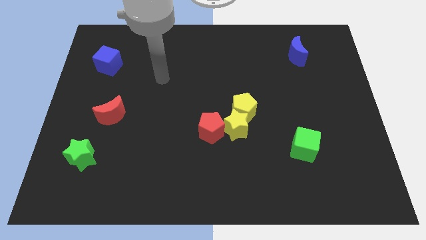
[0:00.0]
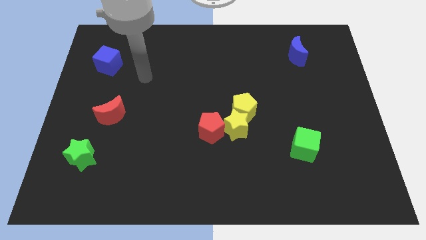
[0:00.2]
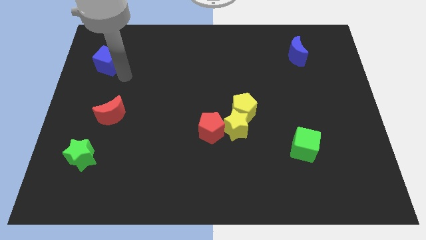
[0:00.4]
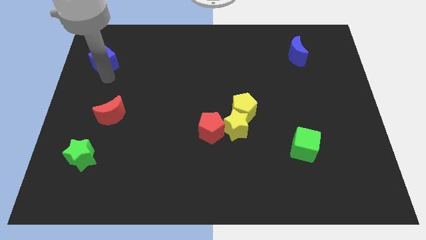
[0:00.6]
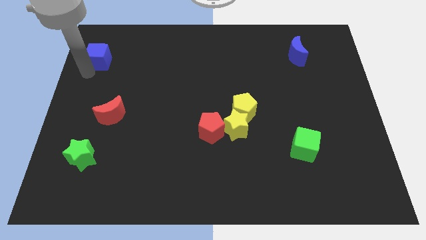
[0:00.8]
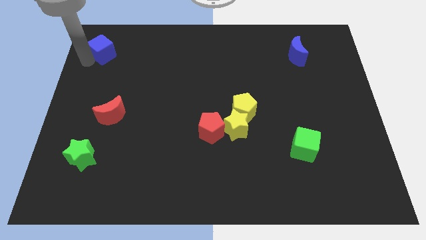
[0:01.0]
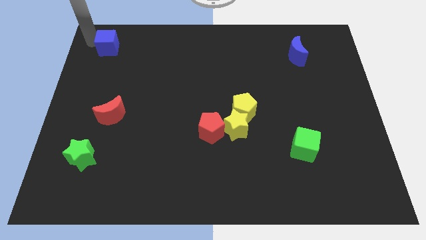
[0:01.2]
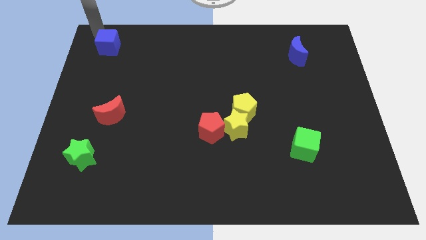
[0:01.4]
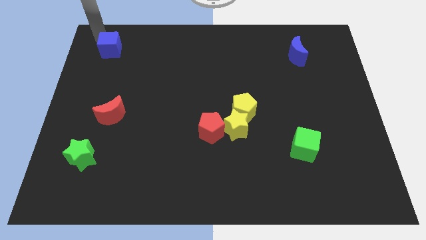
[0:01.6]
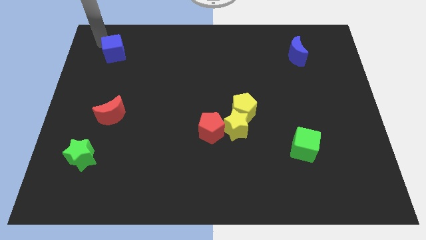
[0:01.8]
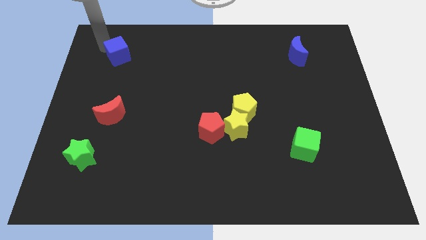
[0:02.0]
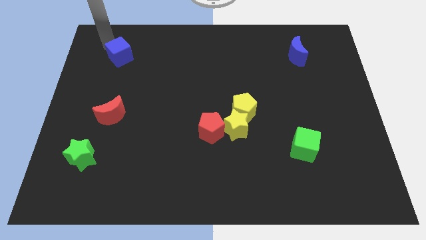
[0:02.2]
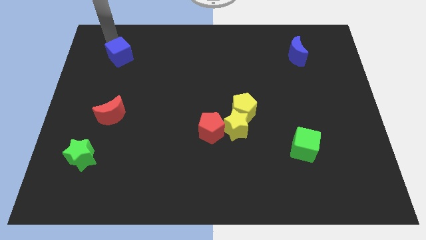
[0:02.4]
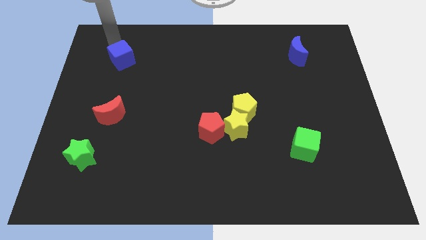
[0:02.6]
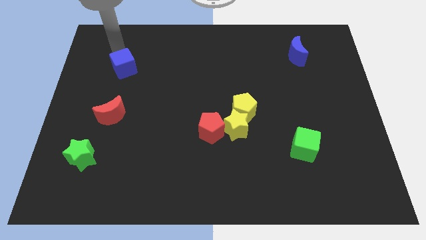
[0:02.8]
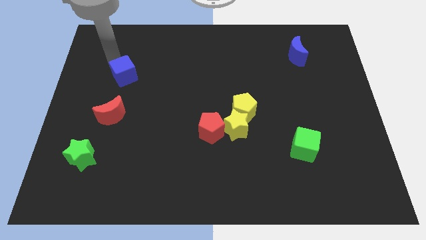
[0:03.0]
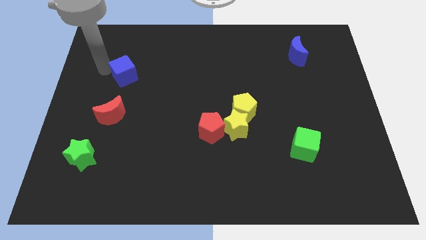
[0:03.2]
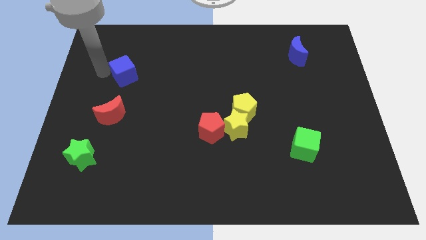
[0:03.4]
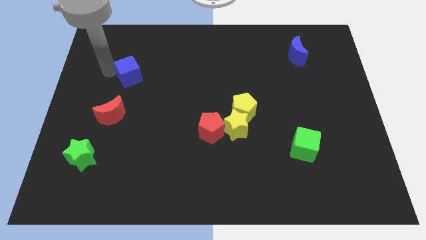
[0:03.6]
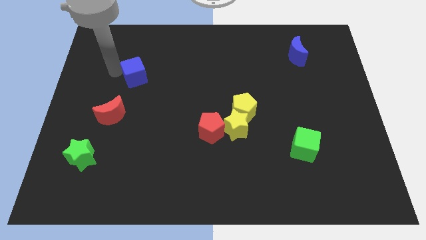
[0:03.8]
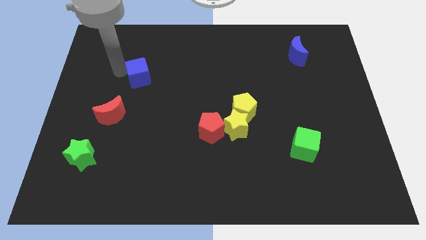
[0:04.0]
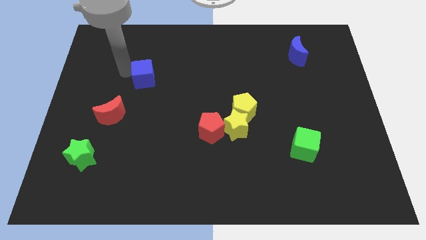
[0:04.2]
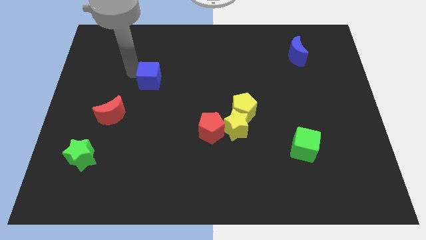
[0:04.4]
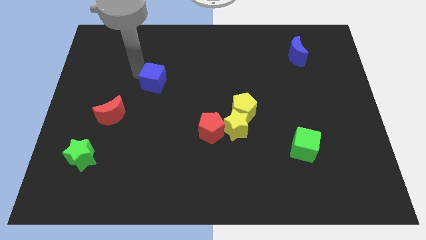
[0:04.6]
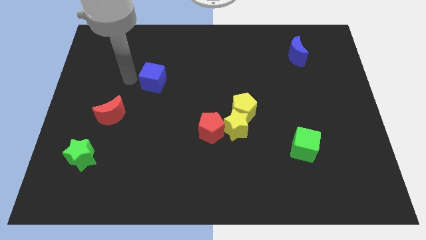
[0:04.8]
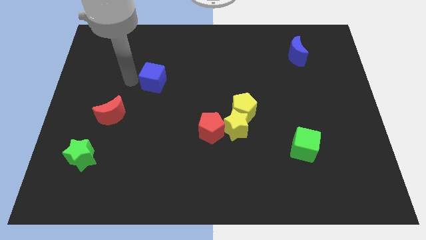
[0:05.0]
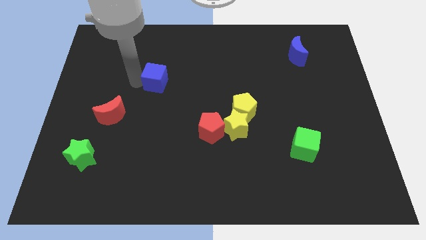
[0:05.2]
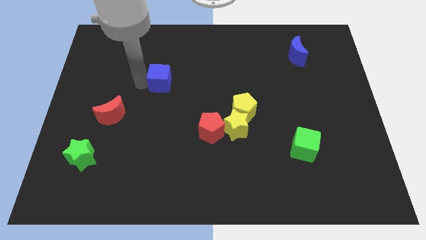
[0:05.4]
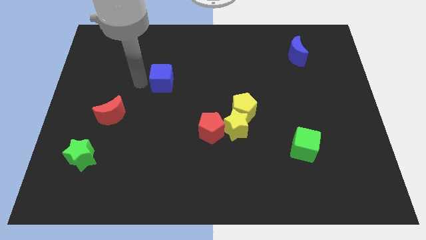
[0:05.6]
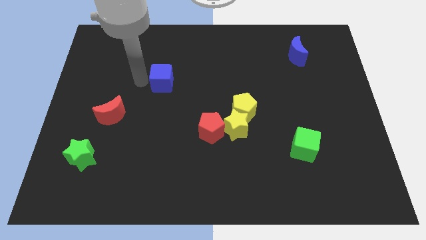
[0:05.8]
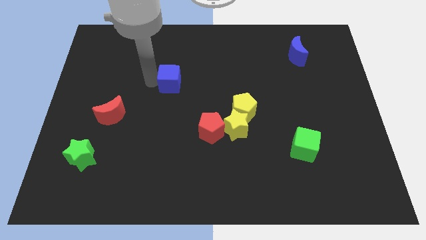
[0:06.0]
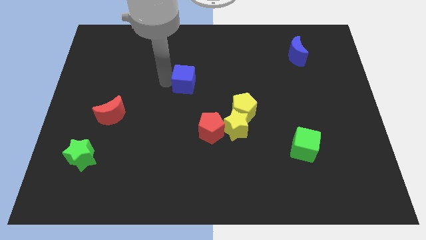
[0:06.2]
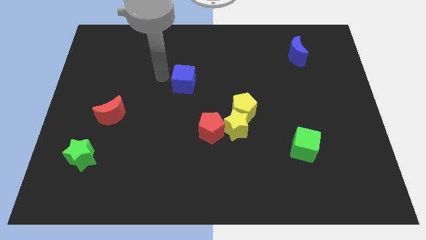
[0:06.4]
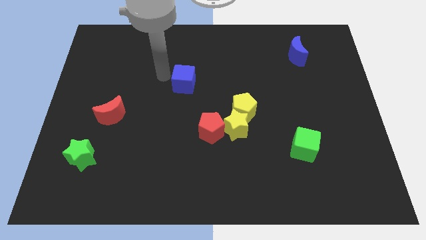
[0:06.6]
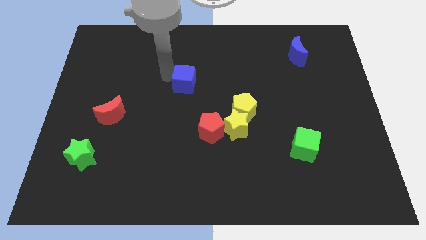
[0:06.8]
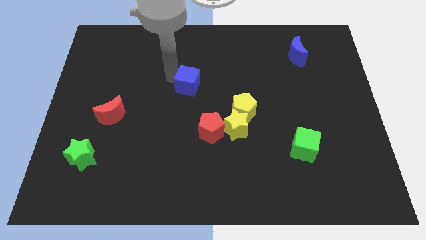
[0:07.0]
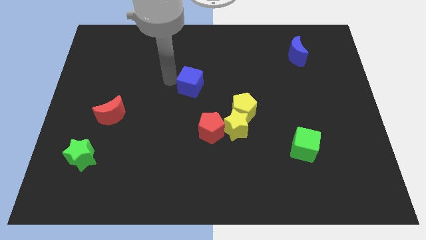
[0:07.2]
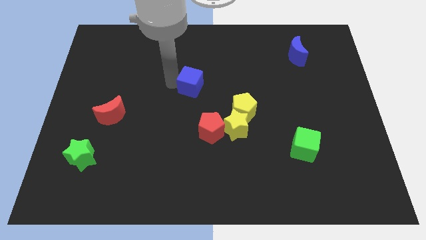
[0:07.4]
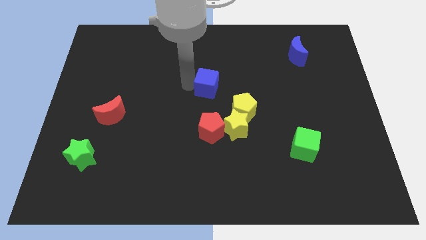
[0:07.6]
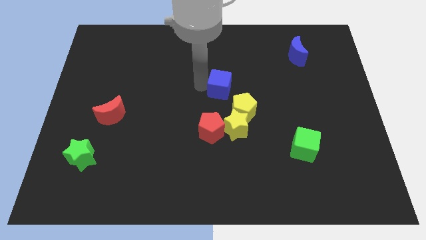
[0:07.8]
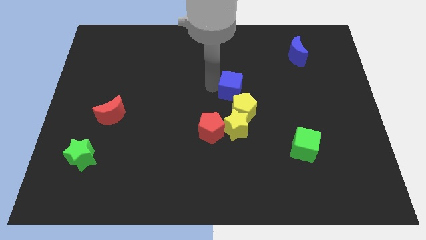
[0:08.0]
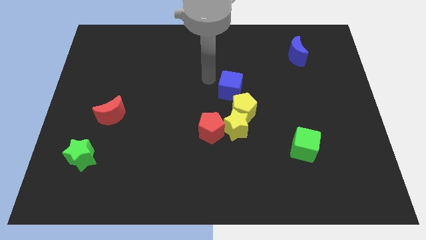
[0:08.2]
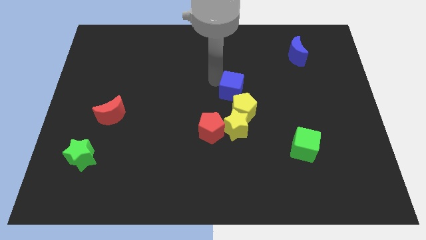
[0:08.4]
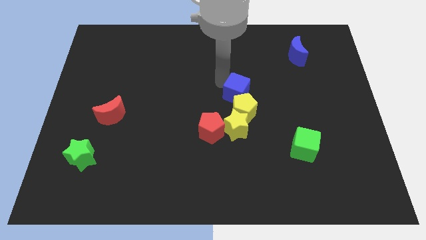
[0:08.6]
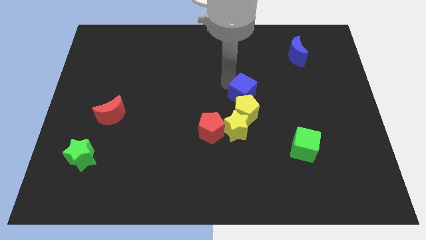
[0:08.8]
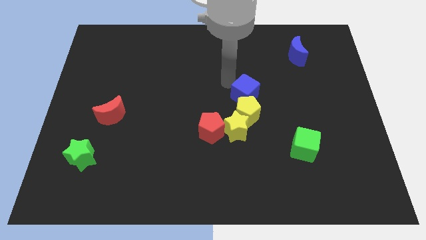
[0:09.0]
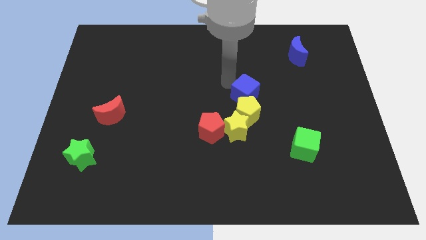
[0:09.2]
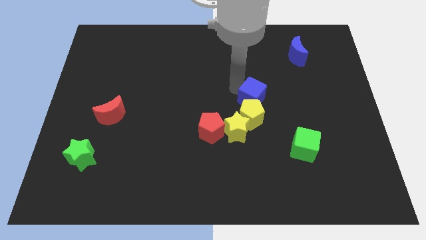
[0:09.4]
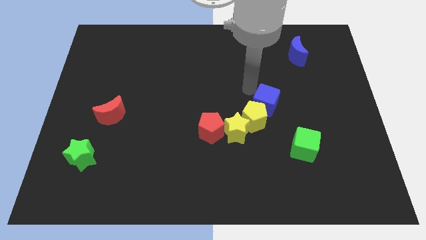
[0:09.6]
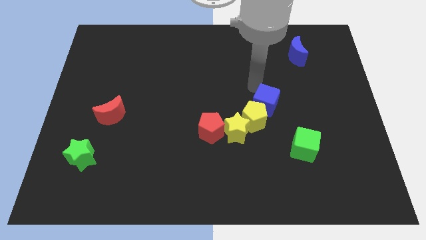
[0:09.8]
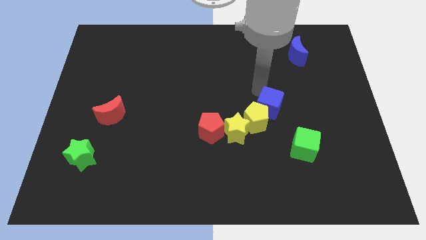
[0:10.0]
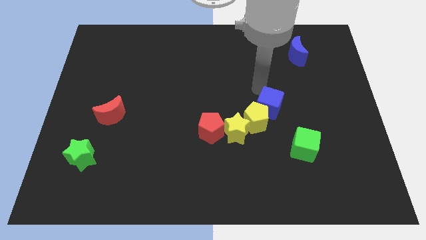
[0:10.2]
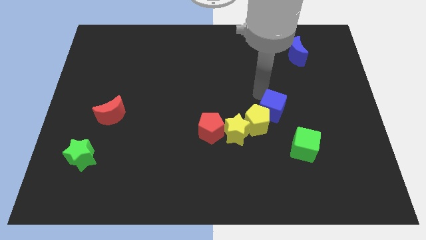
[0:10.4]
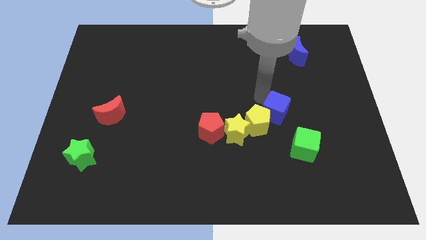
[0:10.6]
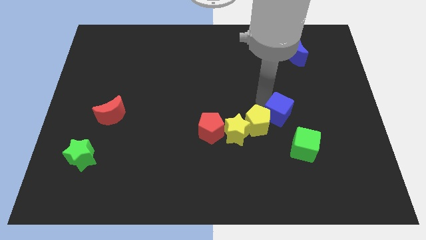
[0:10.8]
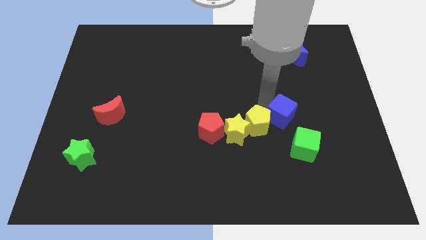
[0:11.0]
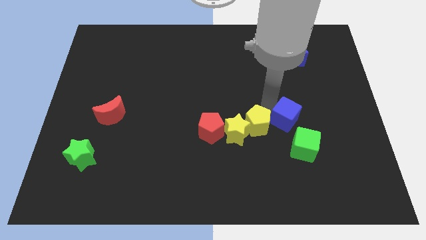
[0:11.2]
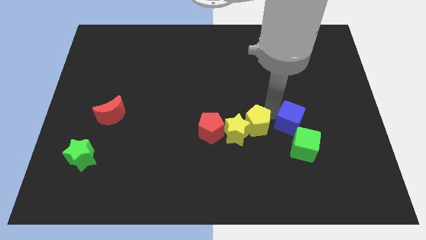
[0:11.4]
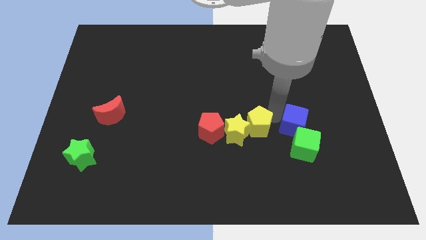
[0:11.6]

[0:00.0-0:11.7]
slide the blue cube to the green cube

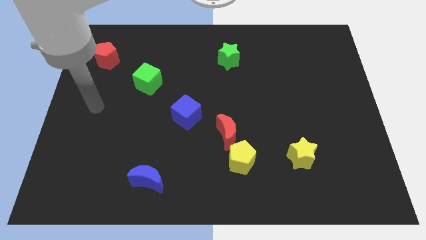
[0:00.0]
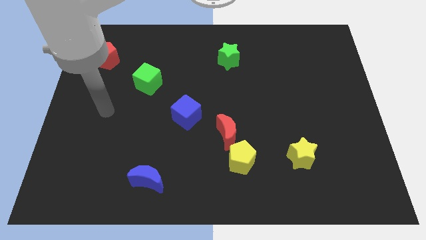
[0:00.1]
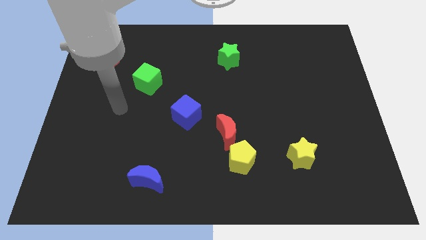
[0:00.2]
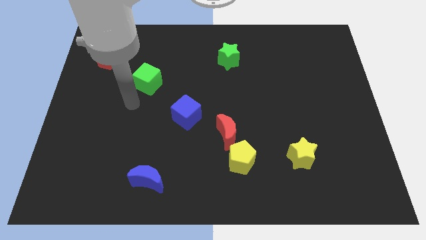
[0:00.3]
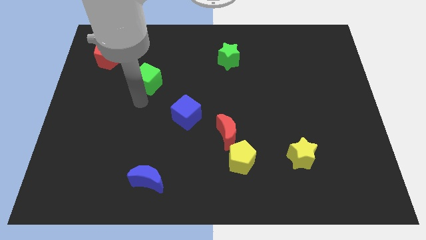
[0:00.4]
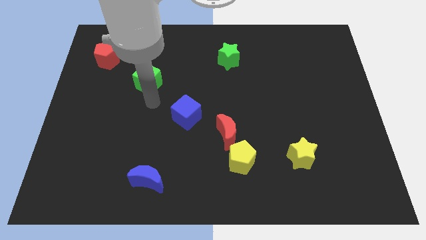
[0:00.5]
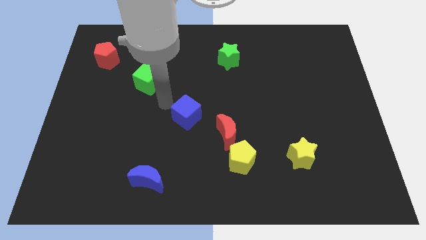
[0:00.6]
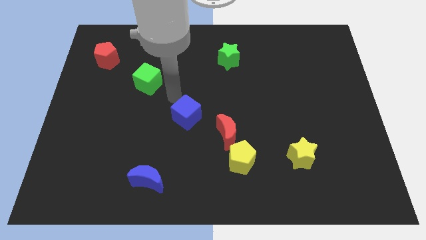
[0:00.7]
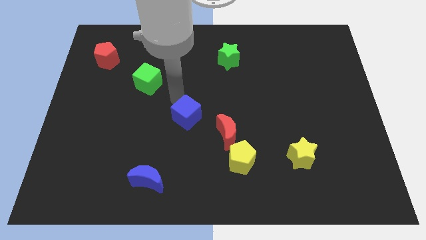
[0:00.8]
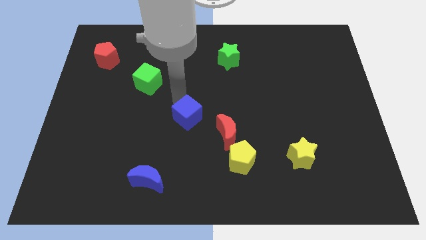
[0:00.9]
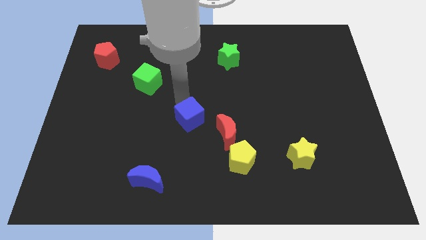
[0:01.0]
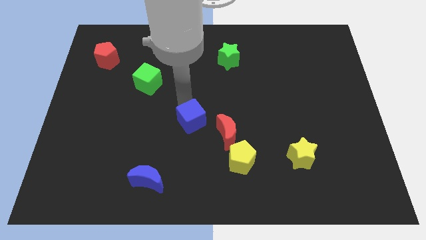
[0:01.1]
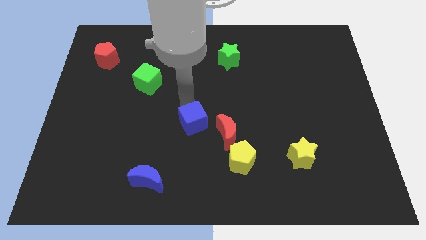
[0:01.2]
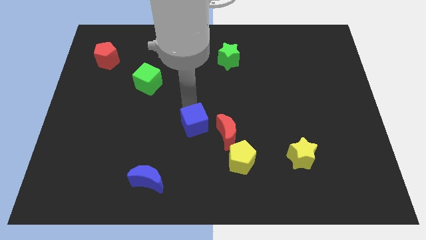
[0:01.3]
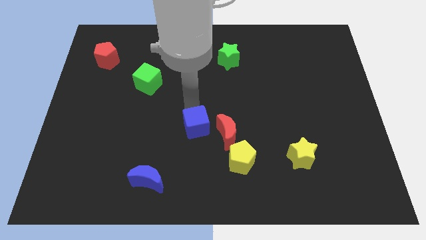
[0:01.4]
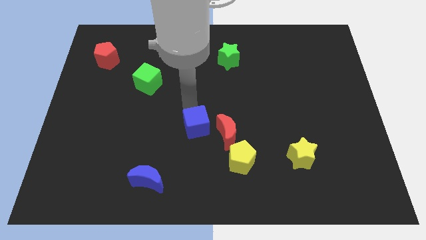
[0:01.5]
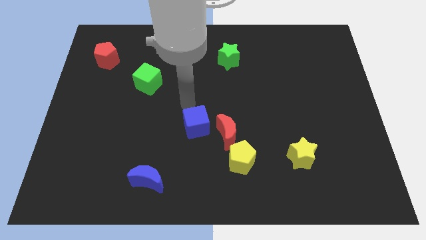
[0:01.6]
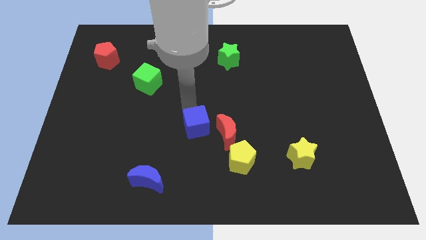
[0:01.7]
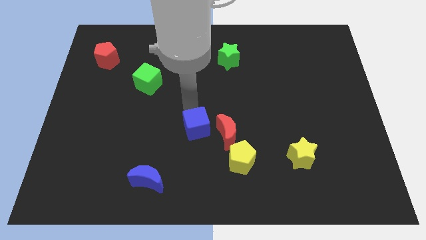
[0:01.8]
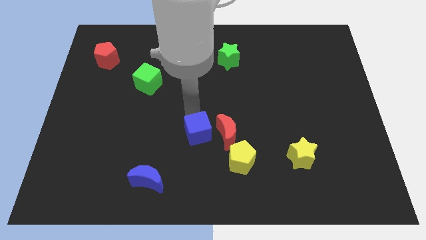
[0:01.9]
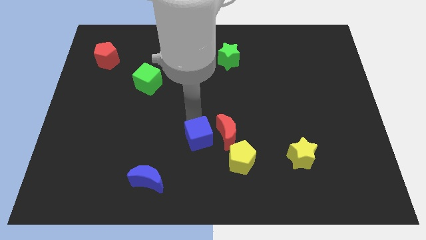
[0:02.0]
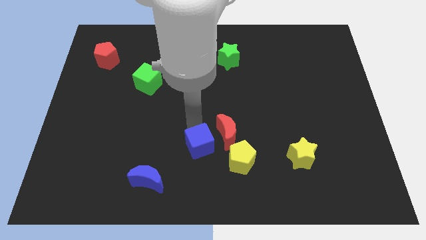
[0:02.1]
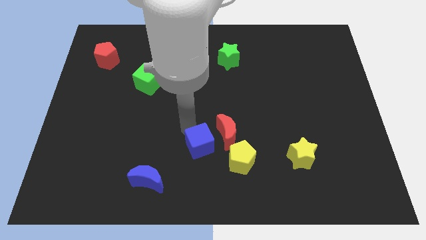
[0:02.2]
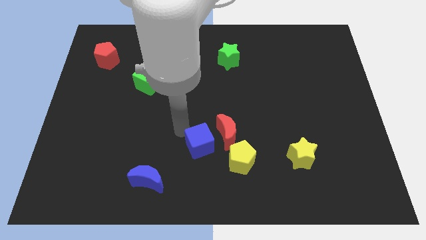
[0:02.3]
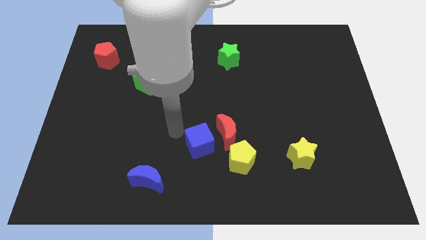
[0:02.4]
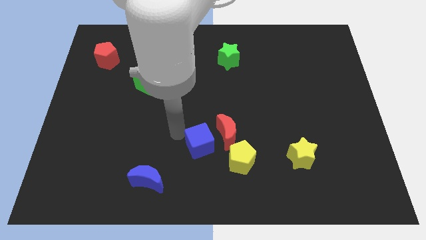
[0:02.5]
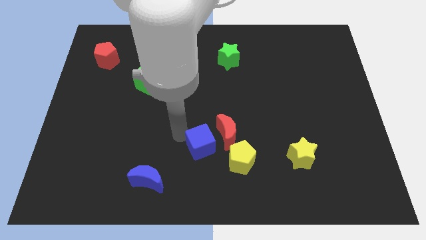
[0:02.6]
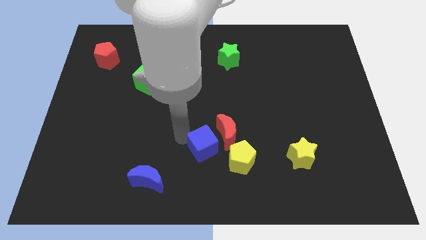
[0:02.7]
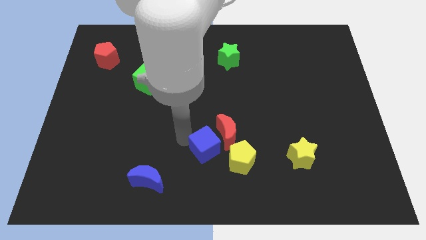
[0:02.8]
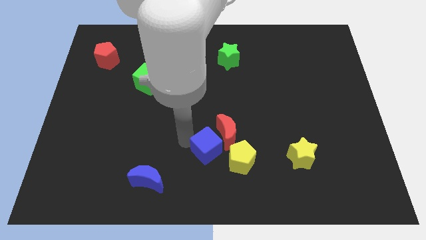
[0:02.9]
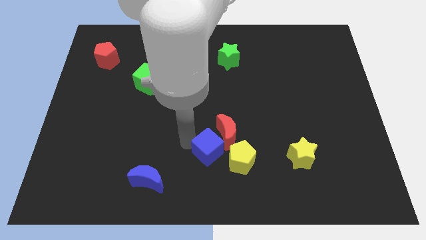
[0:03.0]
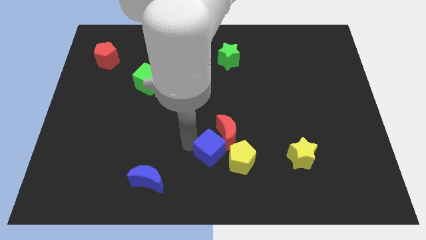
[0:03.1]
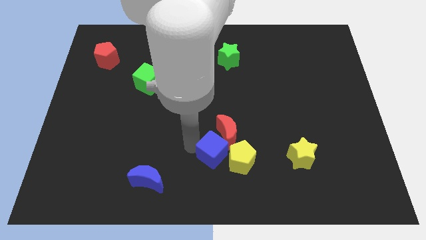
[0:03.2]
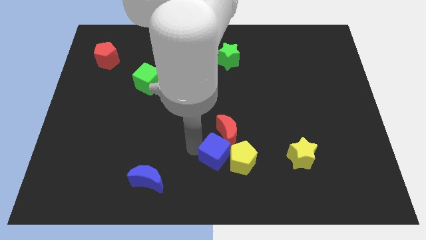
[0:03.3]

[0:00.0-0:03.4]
push the blue cube towards the yellow pentagon
